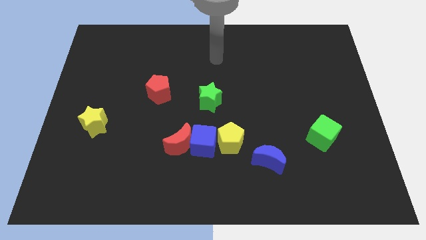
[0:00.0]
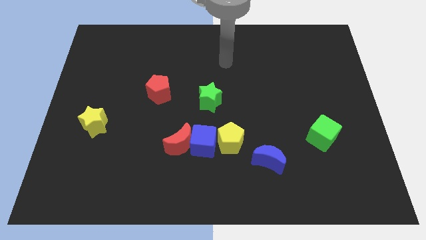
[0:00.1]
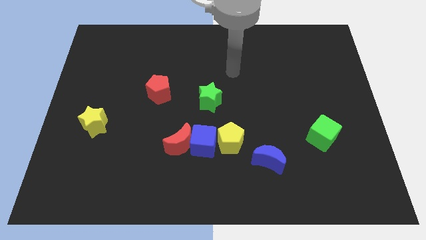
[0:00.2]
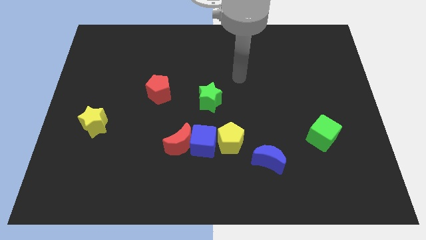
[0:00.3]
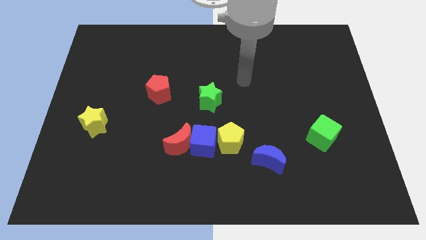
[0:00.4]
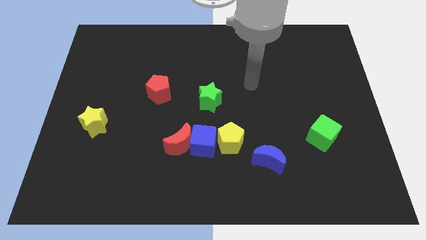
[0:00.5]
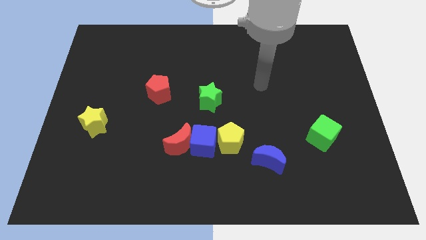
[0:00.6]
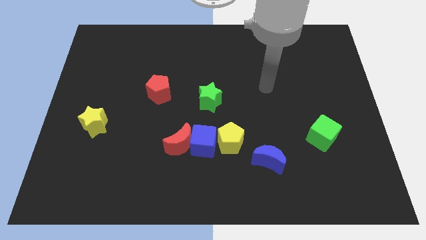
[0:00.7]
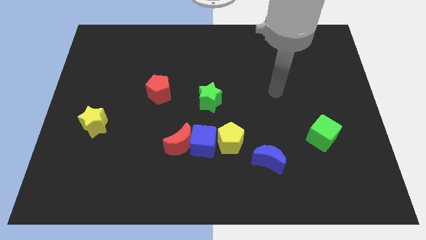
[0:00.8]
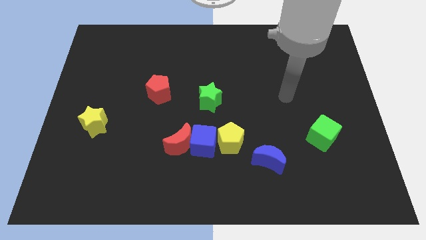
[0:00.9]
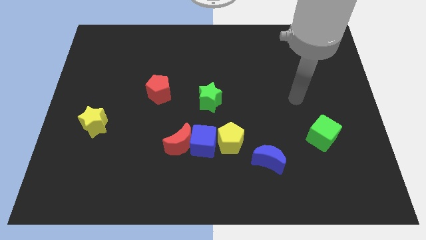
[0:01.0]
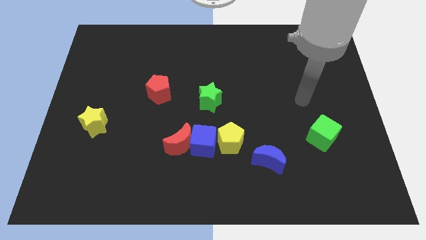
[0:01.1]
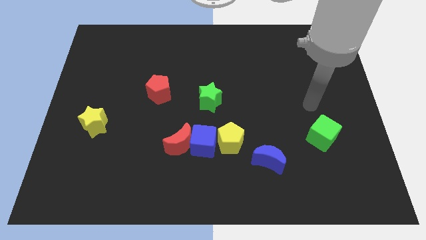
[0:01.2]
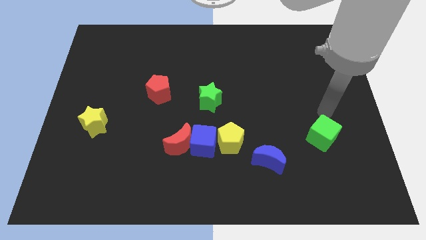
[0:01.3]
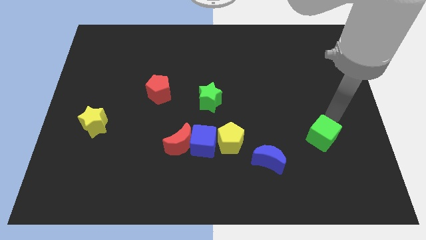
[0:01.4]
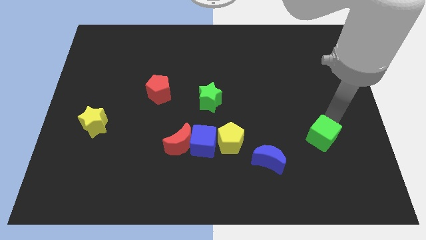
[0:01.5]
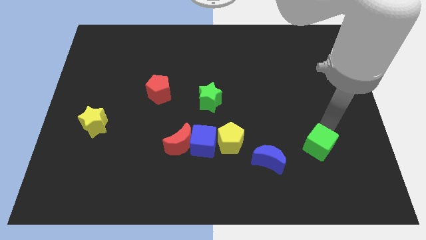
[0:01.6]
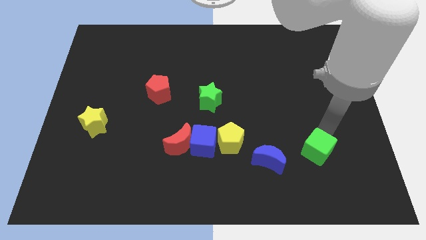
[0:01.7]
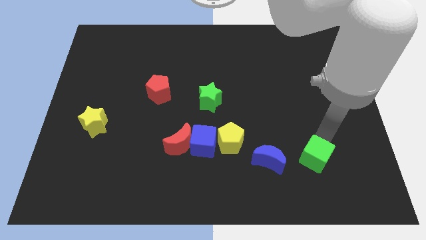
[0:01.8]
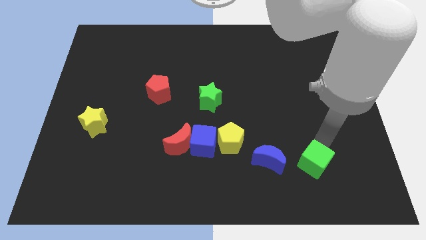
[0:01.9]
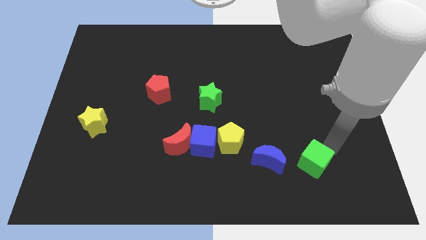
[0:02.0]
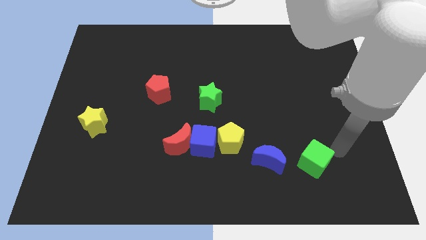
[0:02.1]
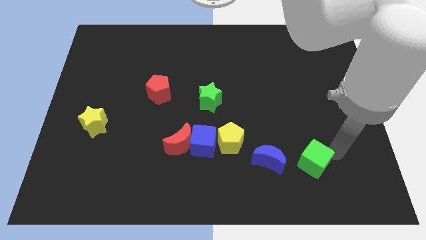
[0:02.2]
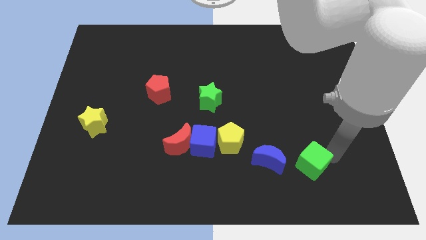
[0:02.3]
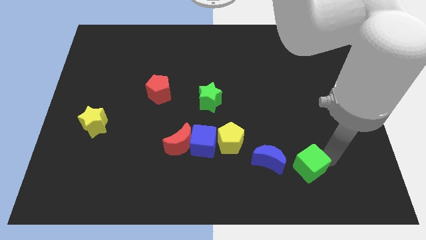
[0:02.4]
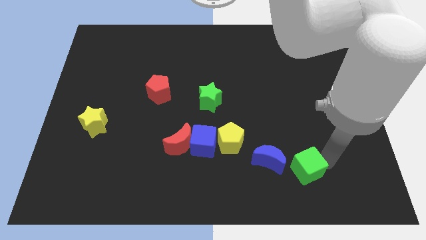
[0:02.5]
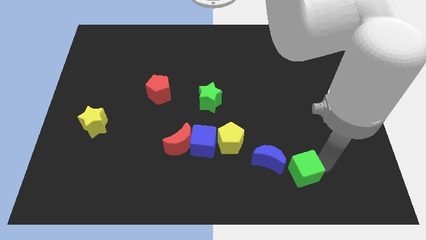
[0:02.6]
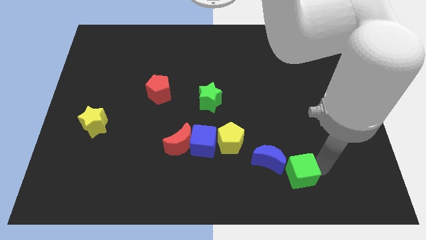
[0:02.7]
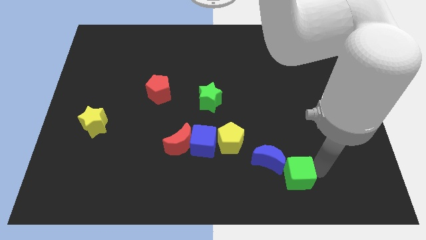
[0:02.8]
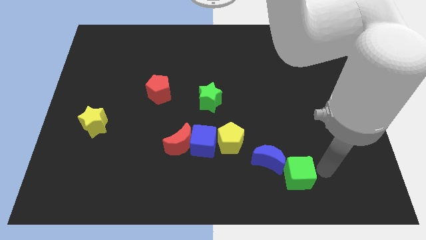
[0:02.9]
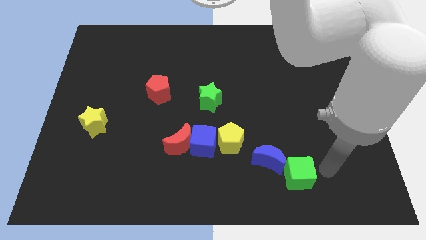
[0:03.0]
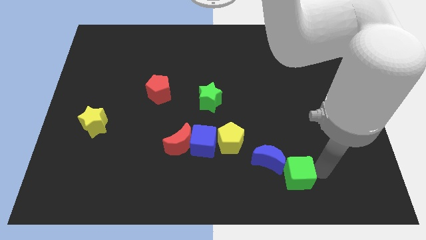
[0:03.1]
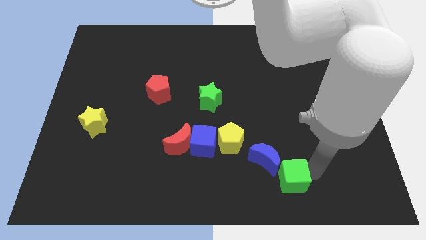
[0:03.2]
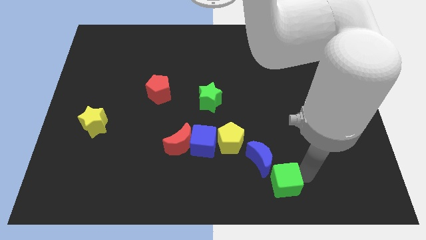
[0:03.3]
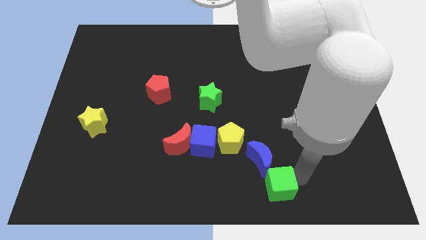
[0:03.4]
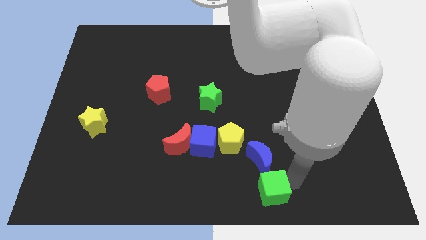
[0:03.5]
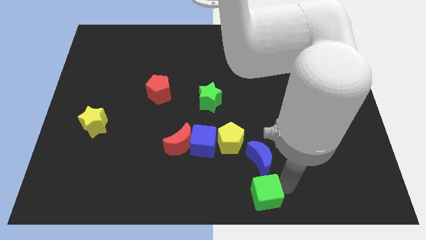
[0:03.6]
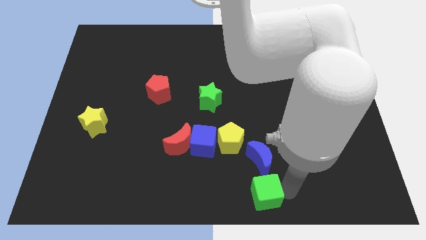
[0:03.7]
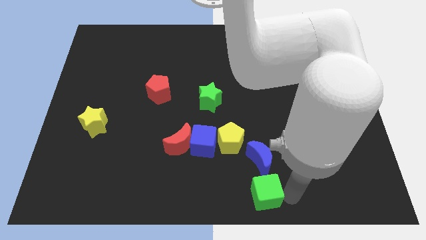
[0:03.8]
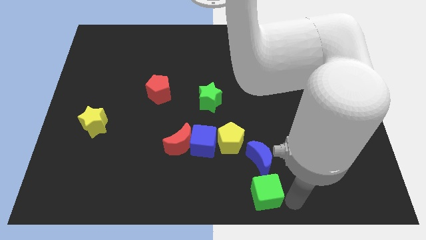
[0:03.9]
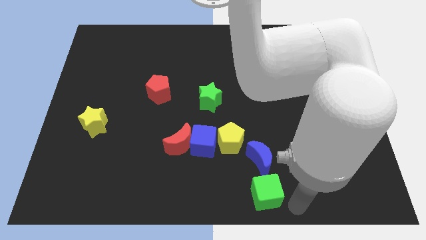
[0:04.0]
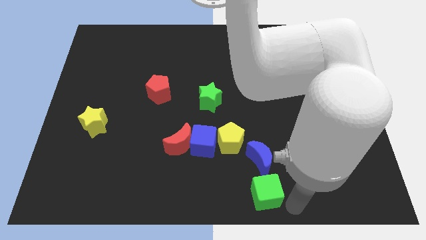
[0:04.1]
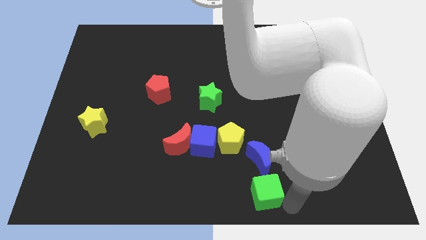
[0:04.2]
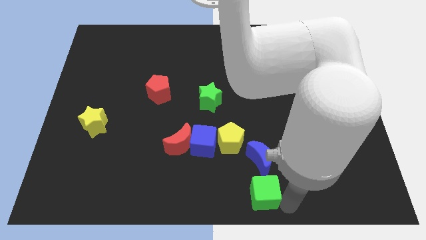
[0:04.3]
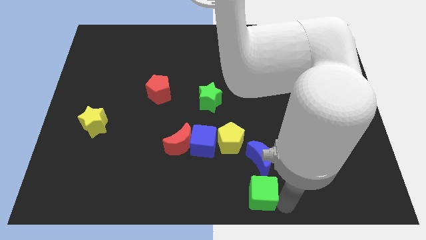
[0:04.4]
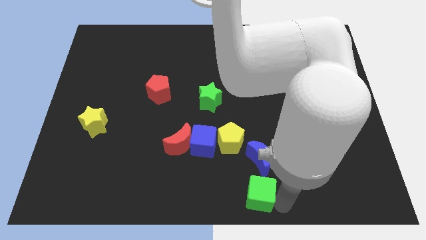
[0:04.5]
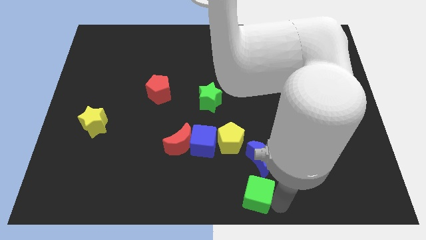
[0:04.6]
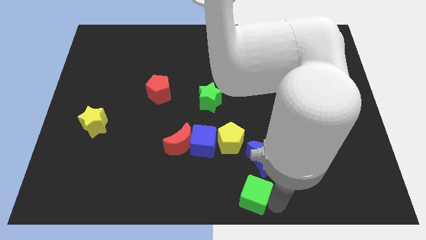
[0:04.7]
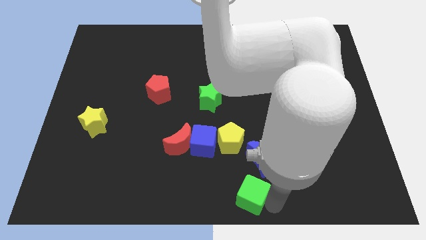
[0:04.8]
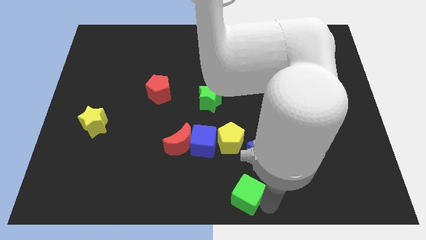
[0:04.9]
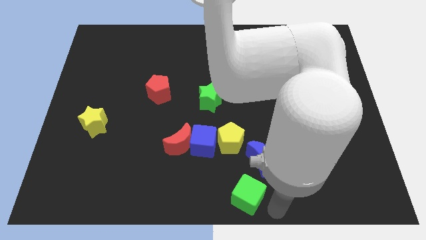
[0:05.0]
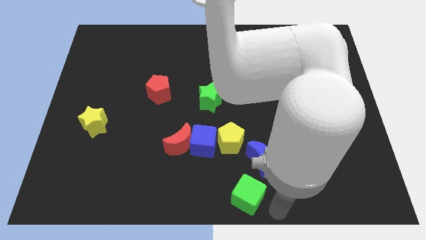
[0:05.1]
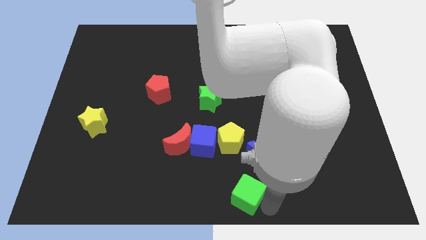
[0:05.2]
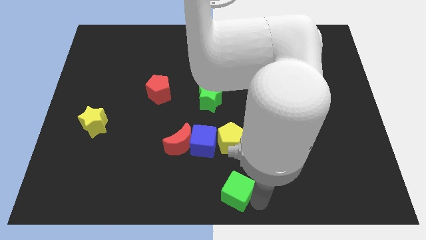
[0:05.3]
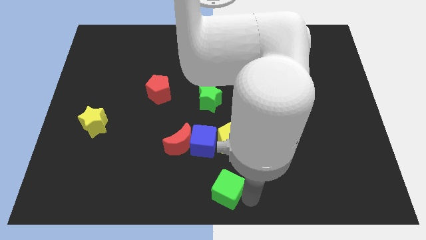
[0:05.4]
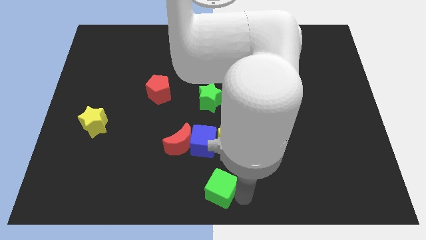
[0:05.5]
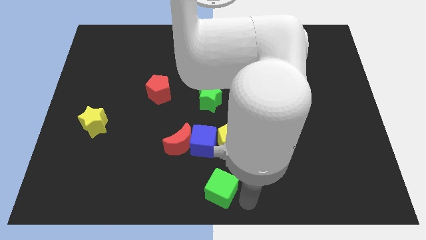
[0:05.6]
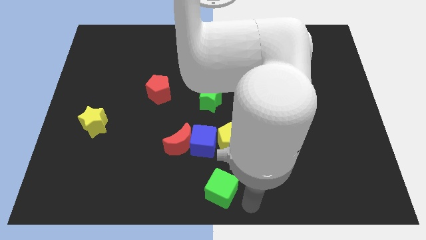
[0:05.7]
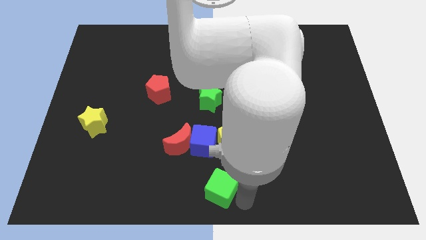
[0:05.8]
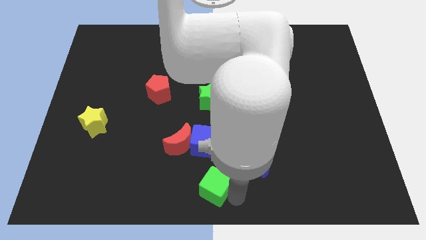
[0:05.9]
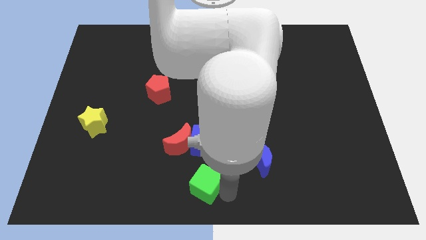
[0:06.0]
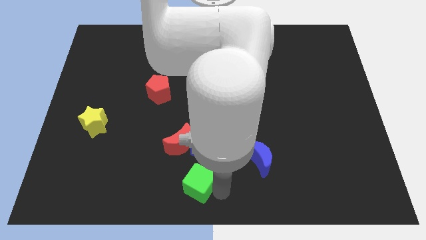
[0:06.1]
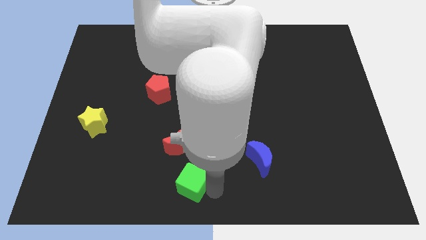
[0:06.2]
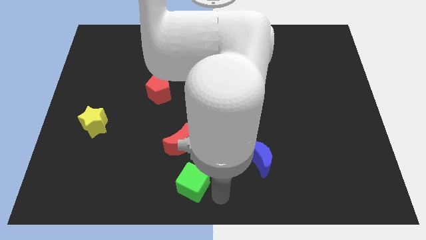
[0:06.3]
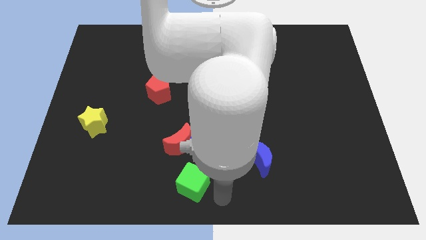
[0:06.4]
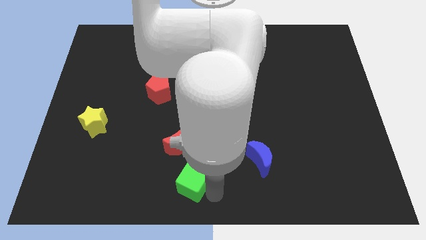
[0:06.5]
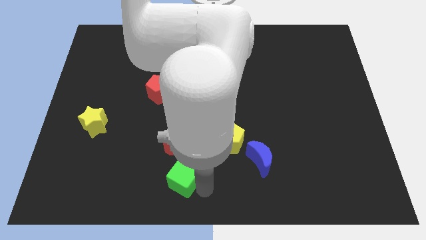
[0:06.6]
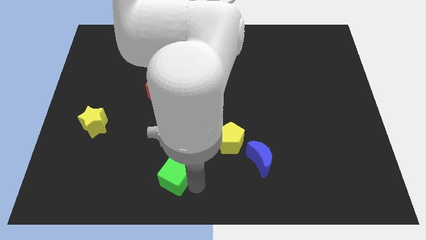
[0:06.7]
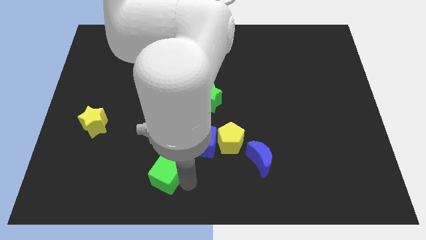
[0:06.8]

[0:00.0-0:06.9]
push the green cube to the bottom left side of the red moon
